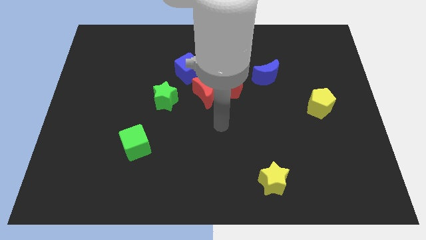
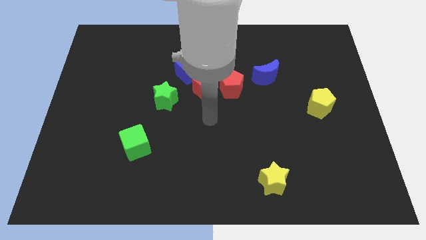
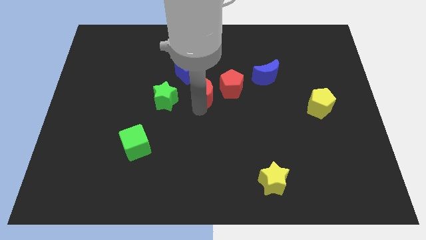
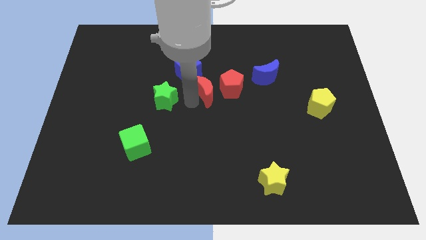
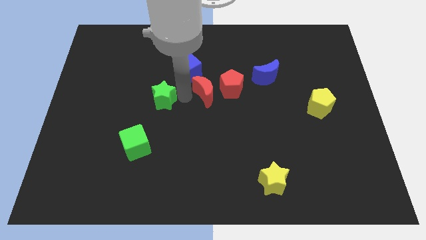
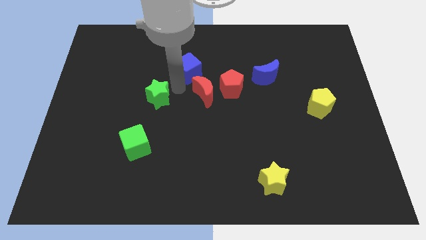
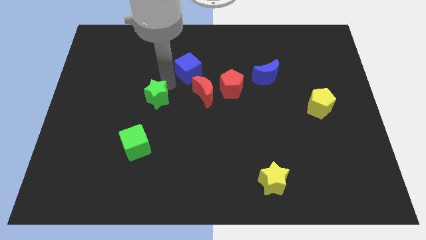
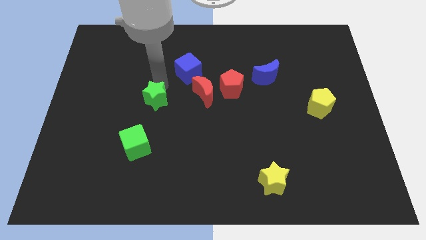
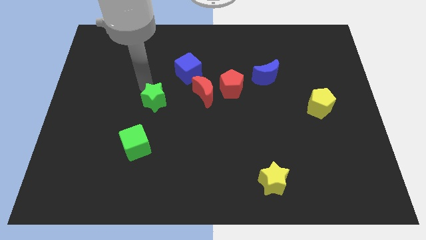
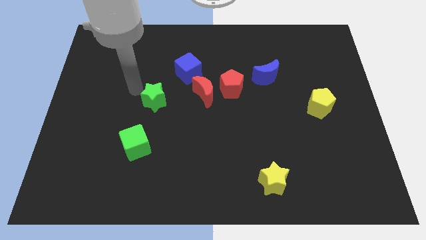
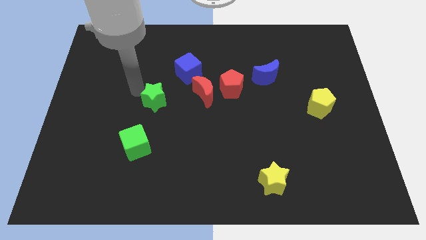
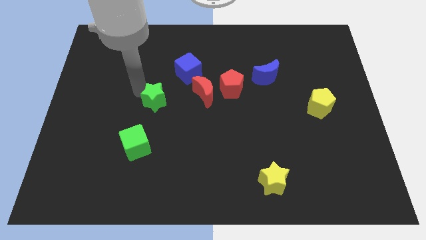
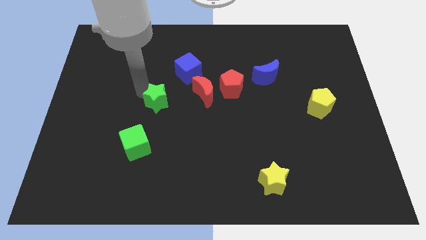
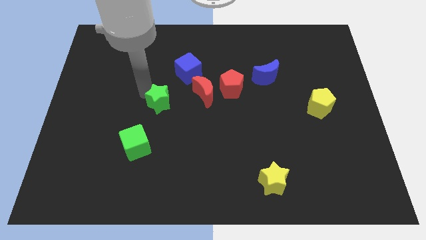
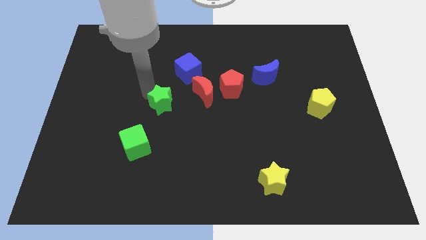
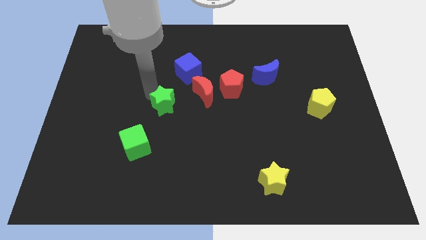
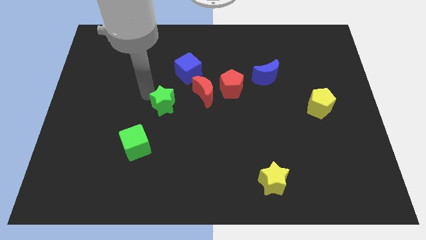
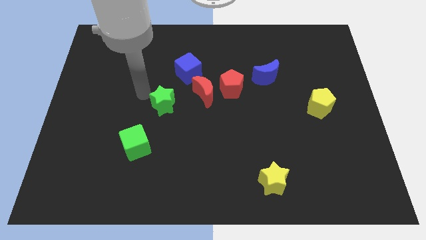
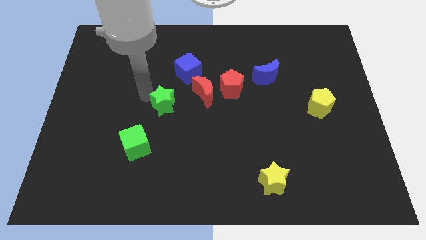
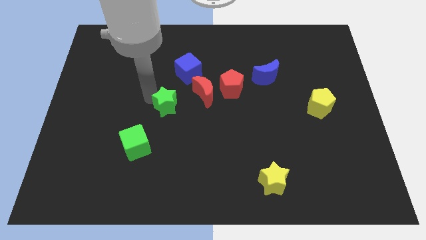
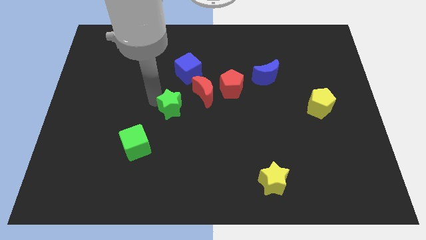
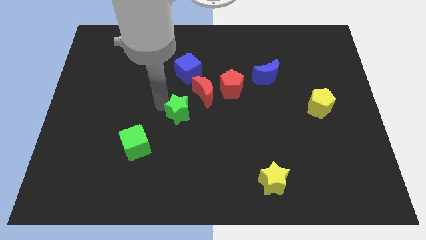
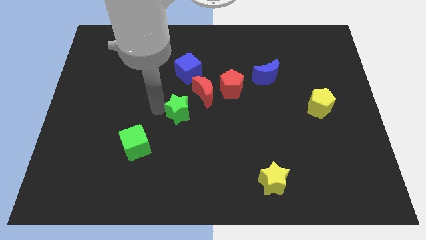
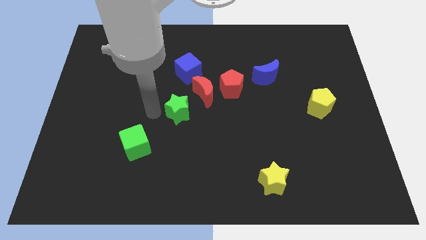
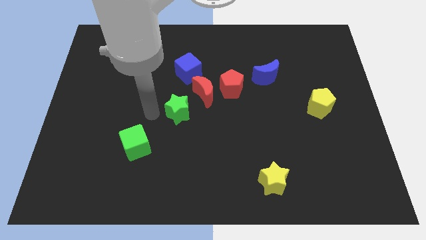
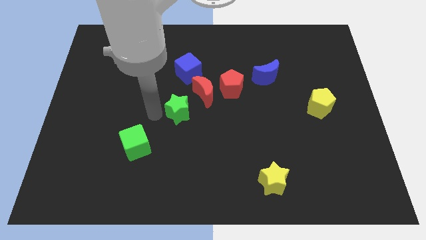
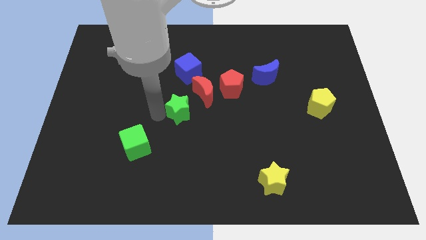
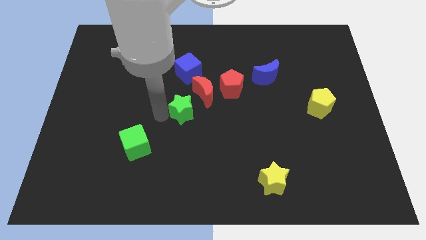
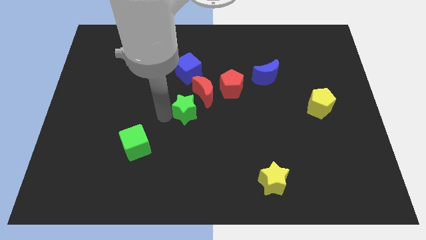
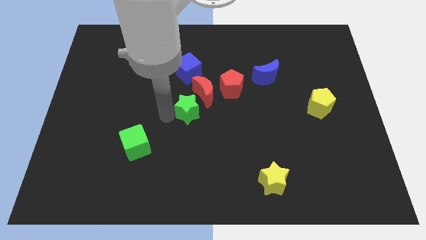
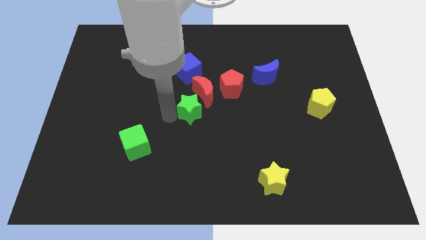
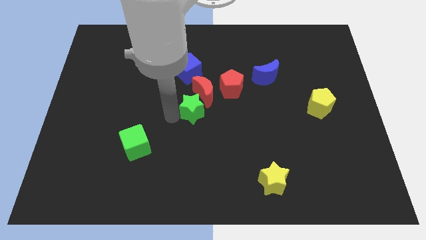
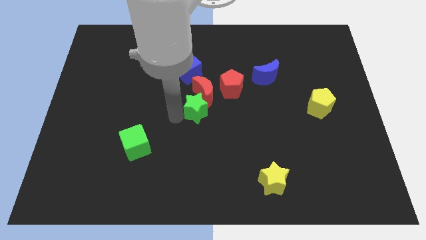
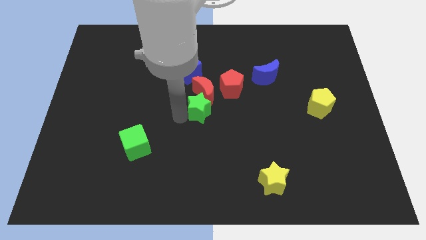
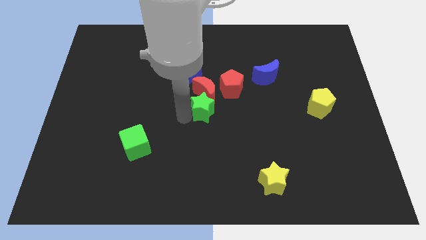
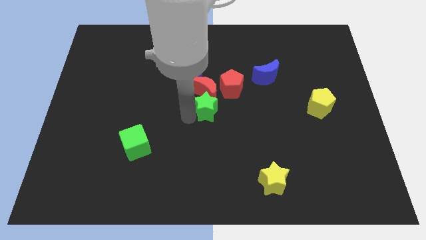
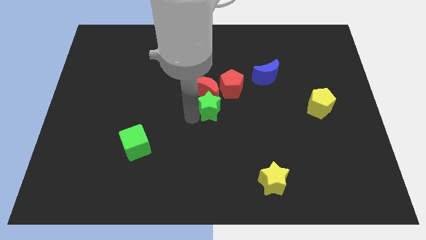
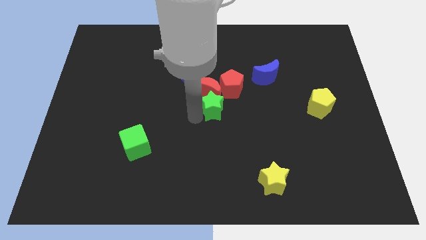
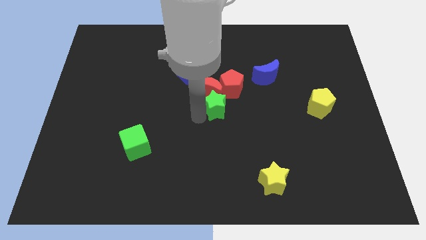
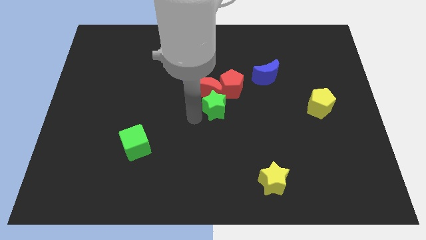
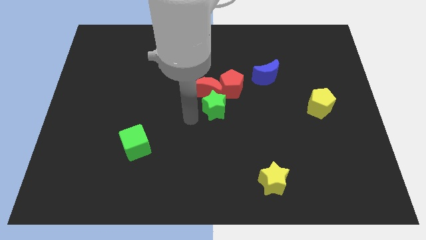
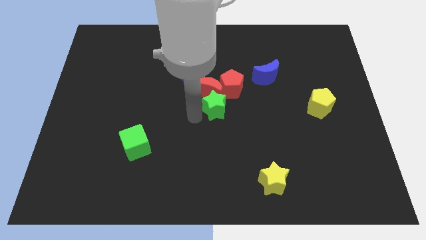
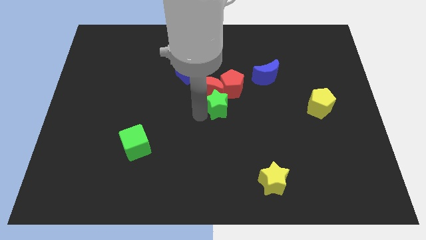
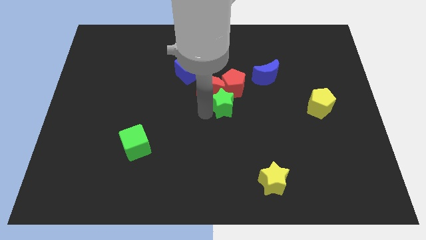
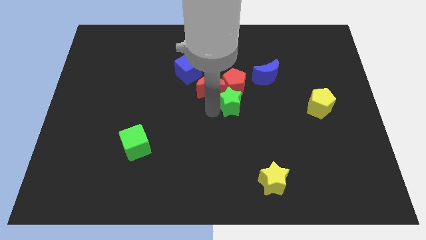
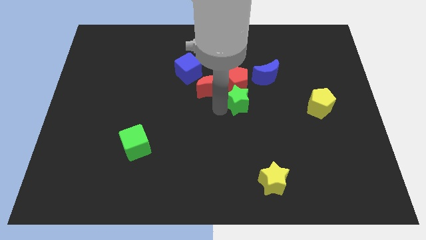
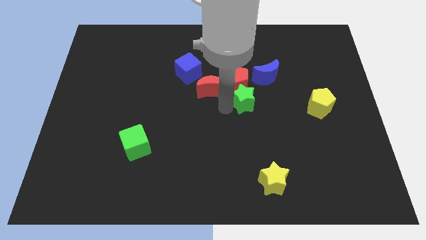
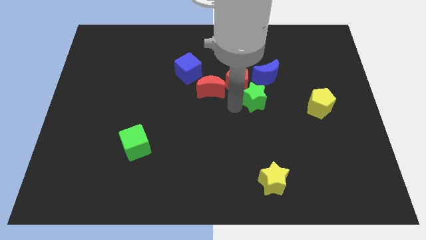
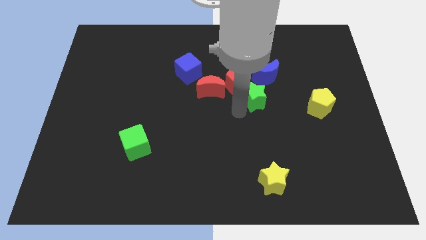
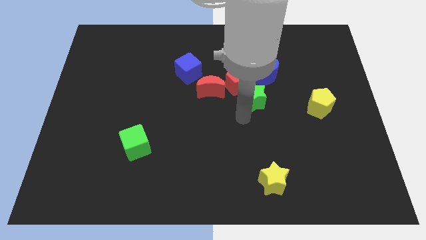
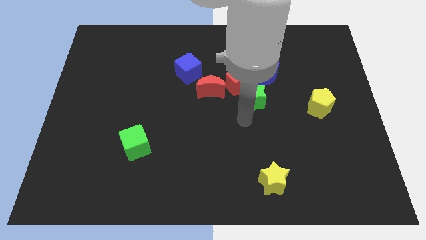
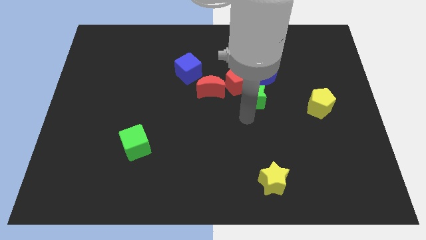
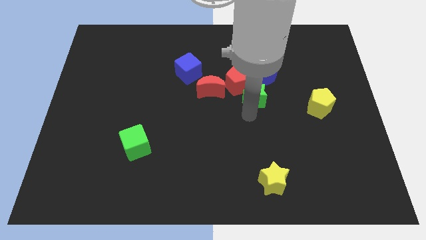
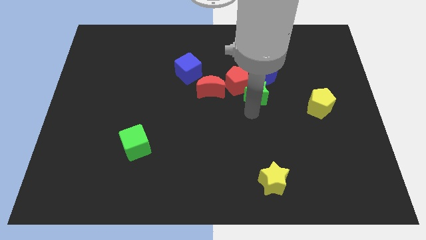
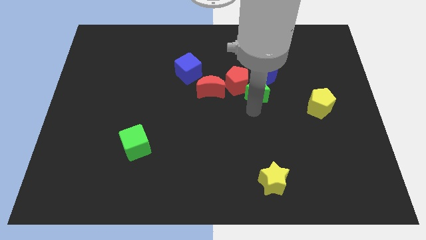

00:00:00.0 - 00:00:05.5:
slide the green star towards the blue moon

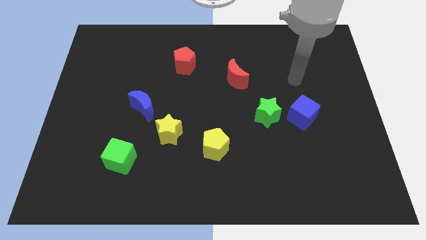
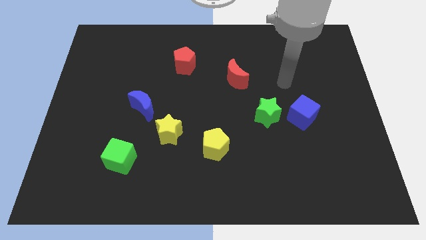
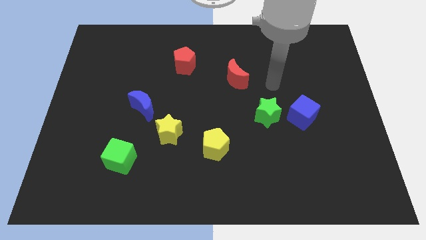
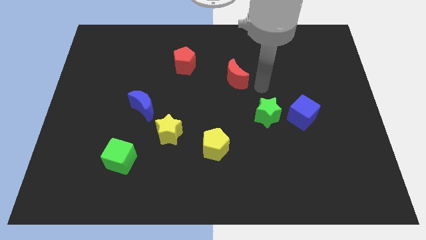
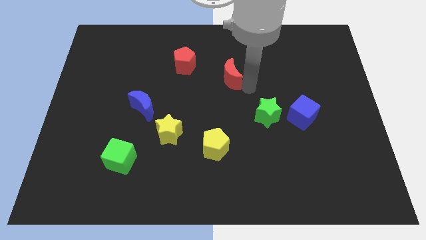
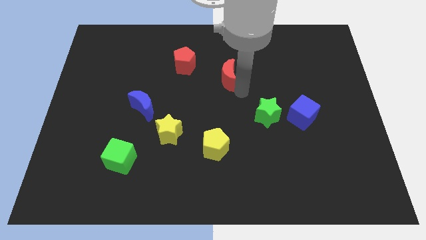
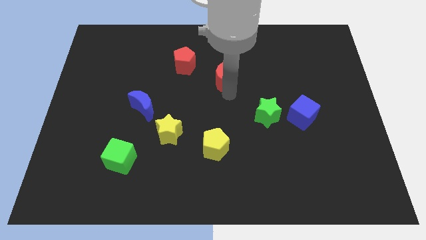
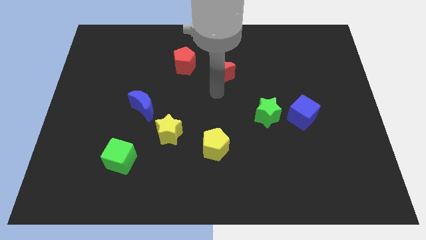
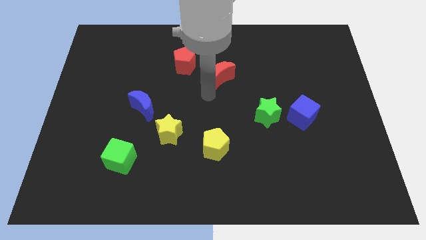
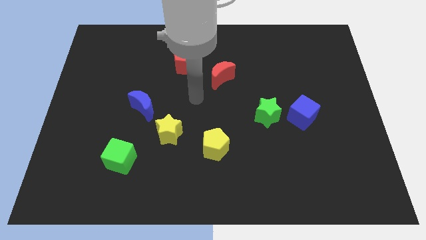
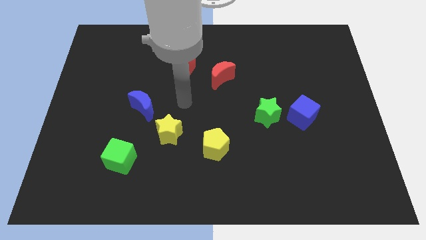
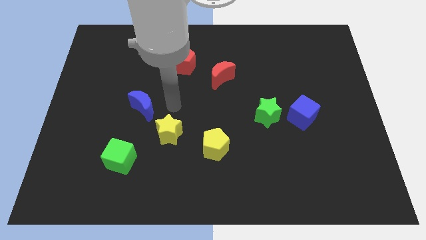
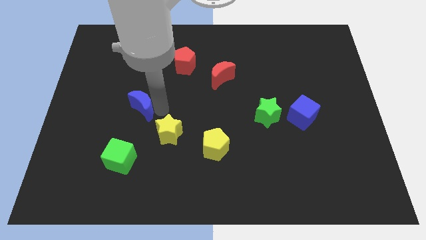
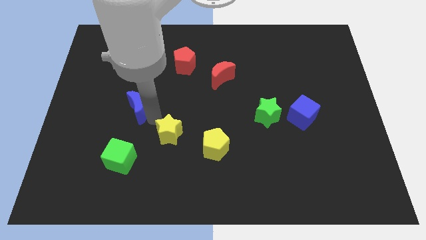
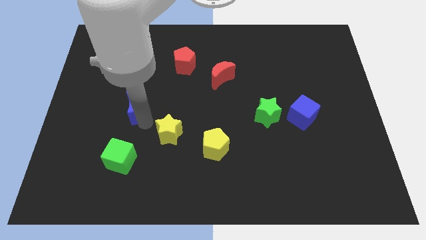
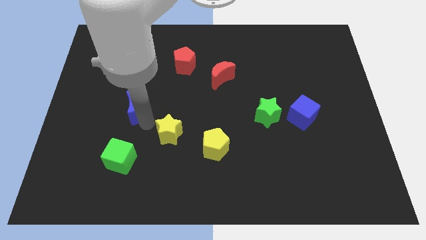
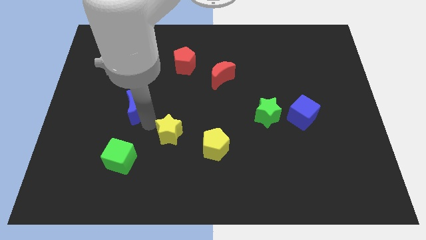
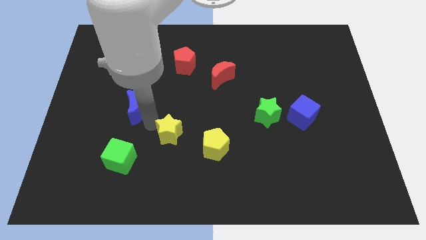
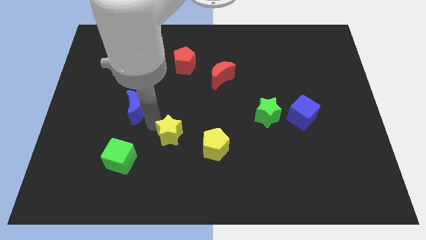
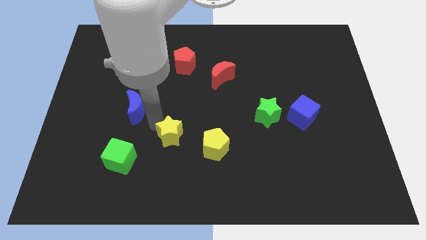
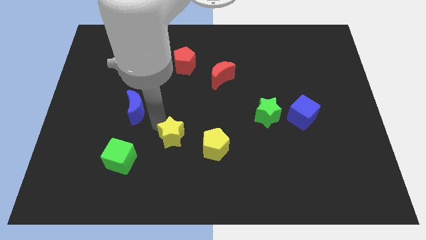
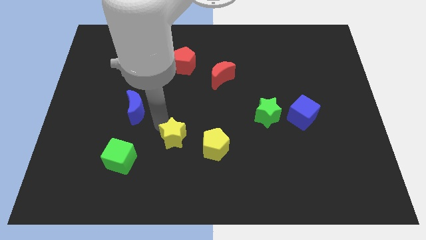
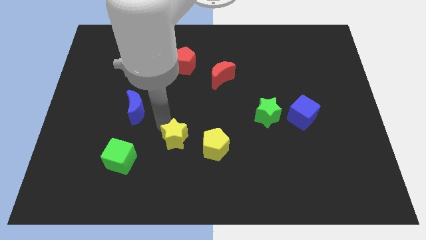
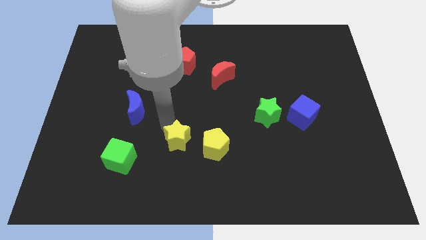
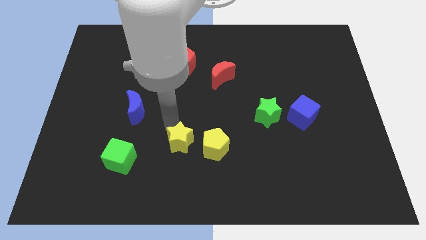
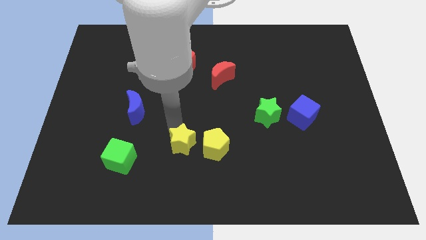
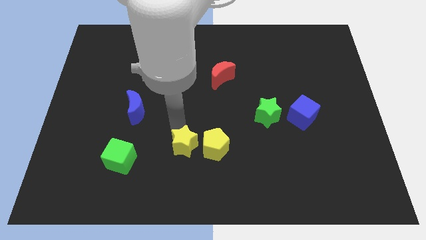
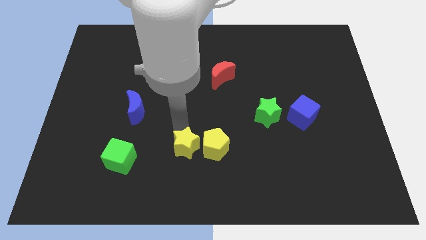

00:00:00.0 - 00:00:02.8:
slide the yellow star next to the yellow pentagon
